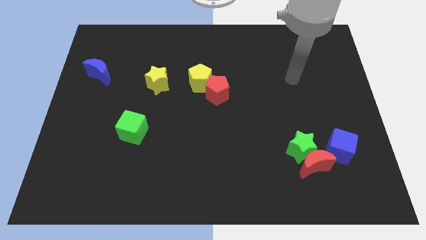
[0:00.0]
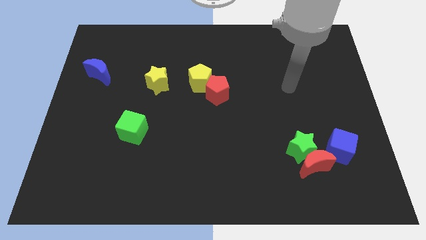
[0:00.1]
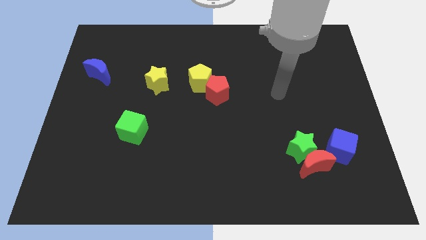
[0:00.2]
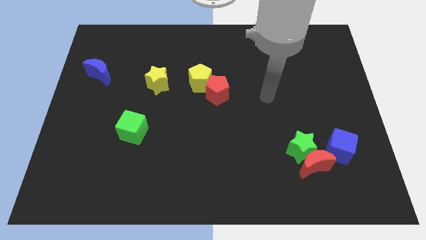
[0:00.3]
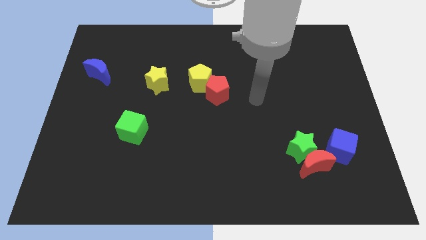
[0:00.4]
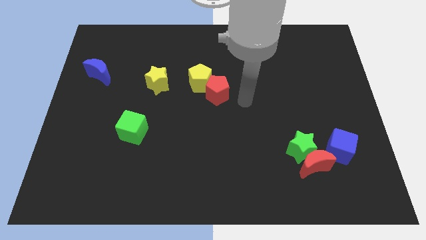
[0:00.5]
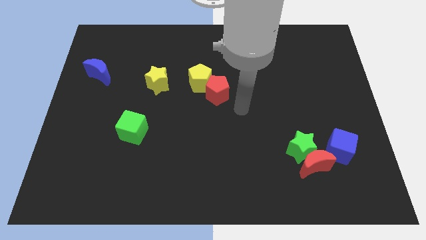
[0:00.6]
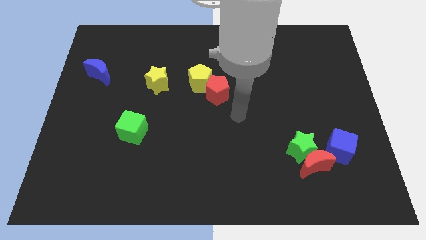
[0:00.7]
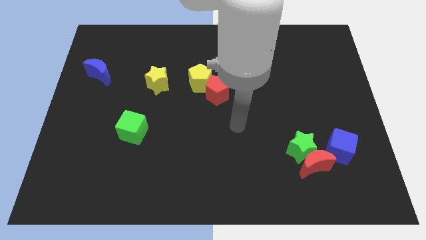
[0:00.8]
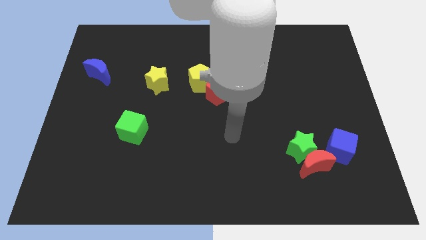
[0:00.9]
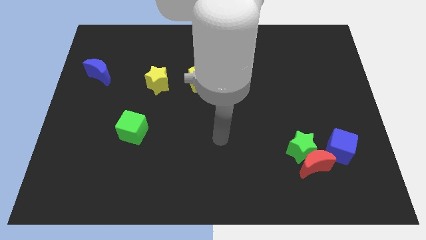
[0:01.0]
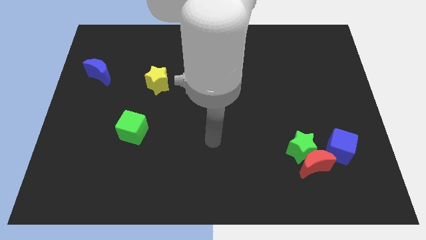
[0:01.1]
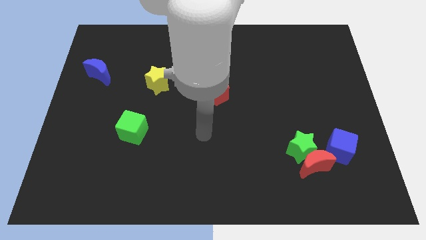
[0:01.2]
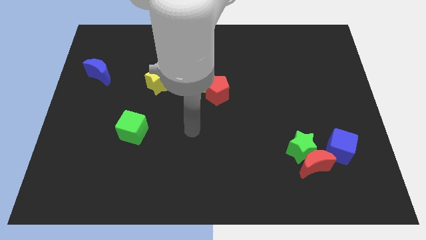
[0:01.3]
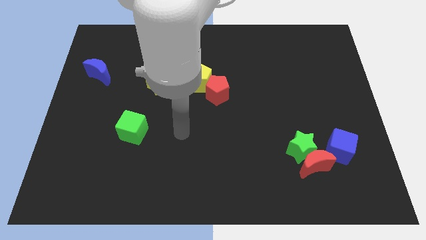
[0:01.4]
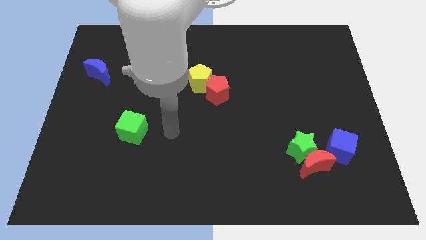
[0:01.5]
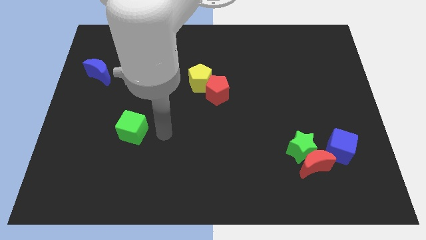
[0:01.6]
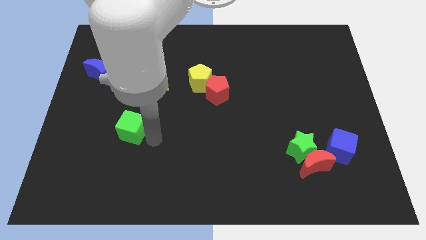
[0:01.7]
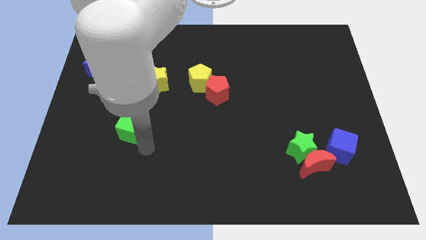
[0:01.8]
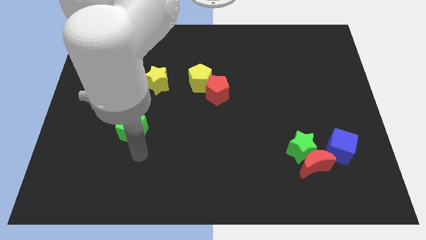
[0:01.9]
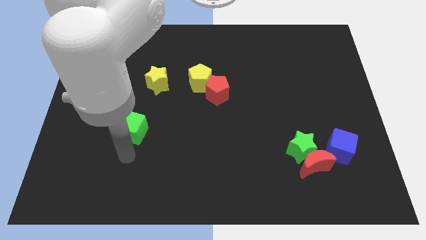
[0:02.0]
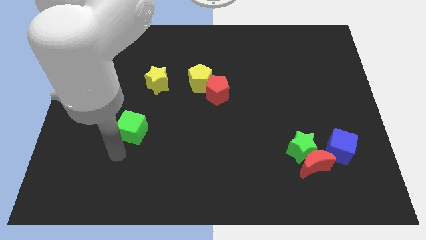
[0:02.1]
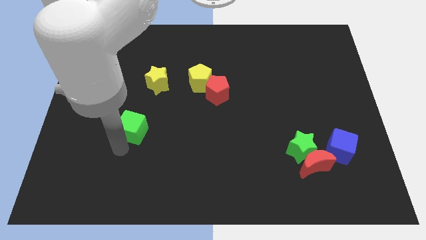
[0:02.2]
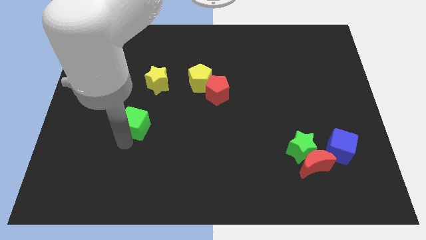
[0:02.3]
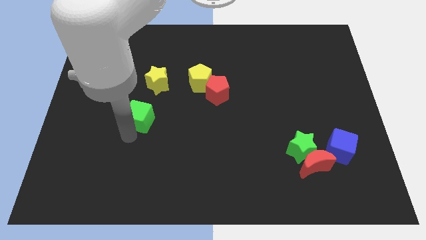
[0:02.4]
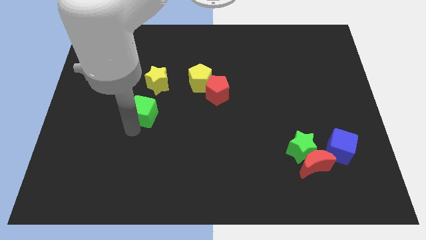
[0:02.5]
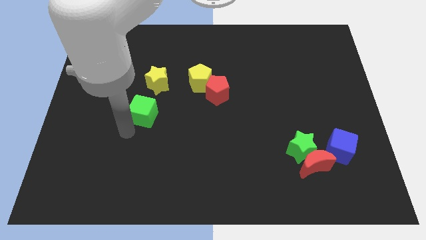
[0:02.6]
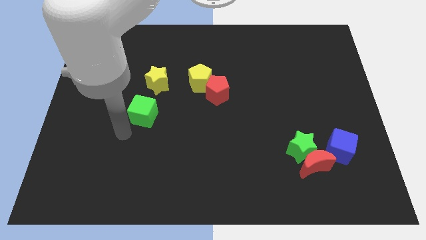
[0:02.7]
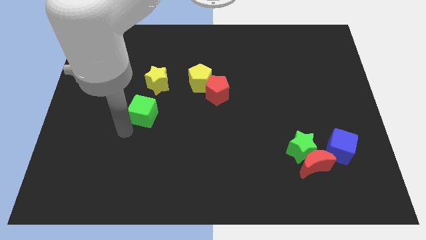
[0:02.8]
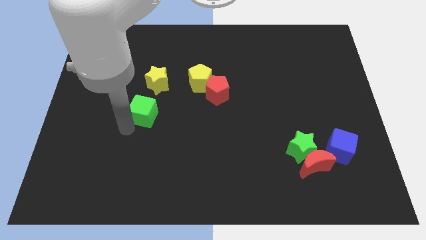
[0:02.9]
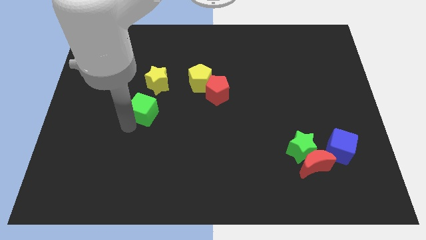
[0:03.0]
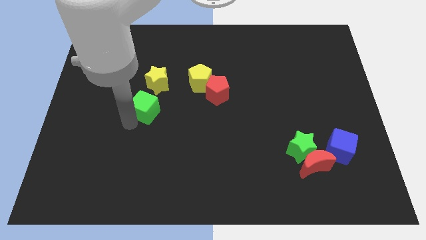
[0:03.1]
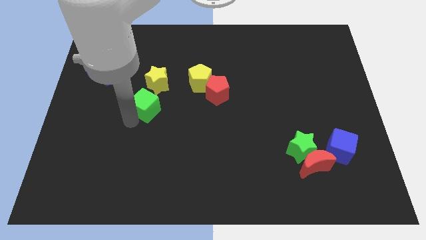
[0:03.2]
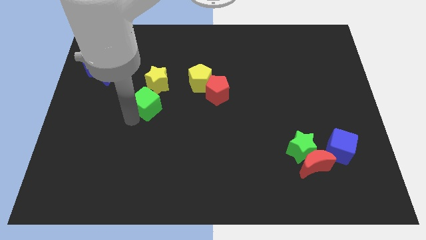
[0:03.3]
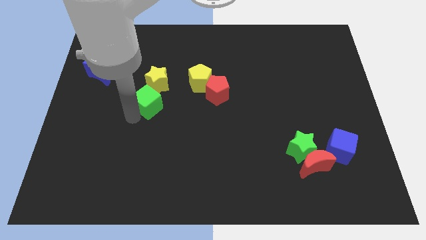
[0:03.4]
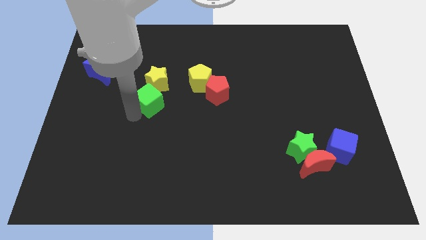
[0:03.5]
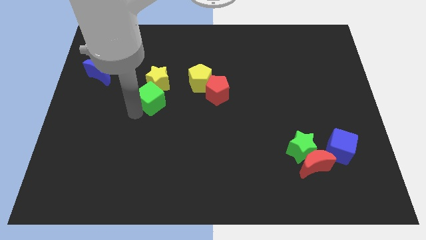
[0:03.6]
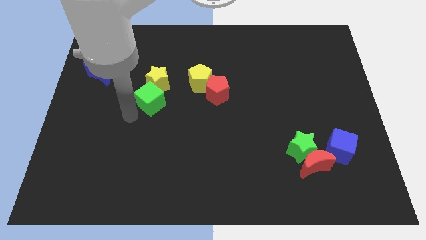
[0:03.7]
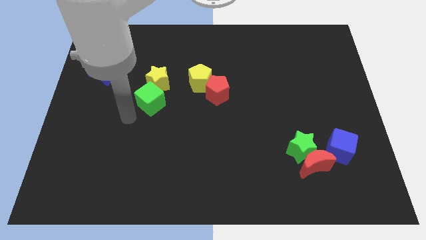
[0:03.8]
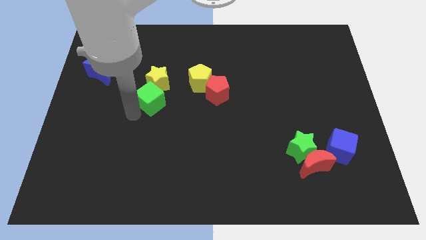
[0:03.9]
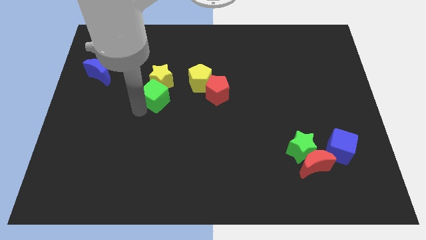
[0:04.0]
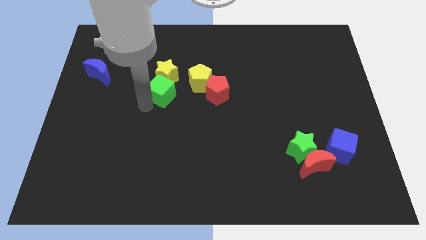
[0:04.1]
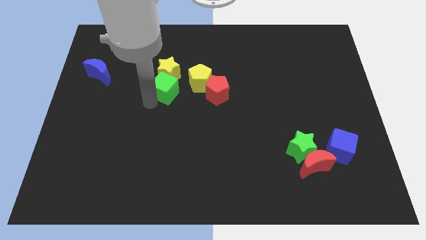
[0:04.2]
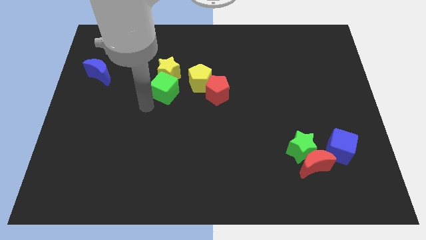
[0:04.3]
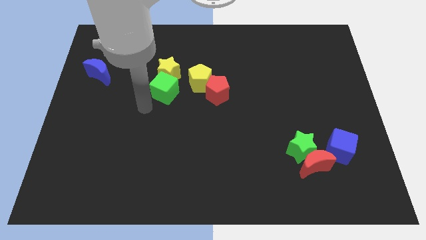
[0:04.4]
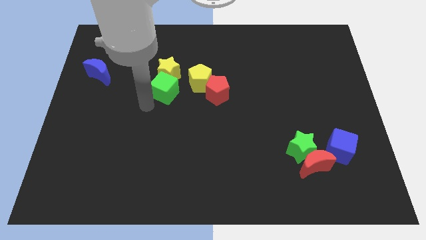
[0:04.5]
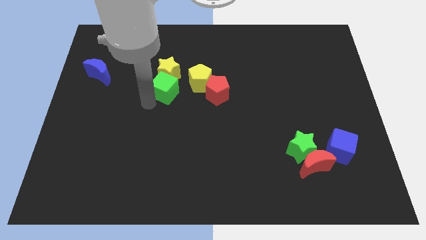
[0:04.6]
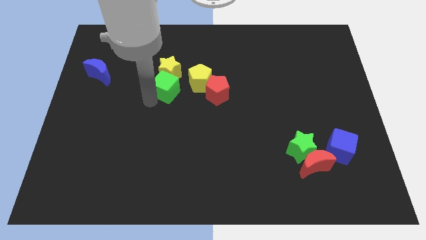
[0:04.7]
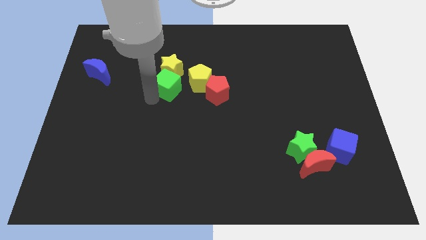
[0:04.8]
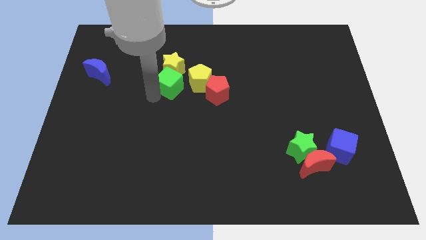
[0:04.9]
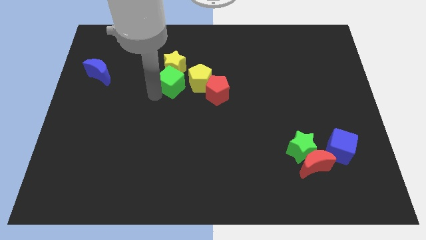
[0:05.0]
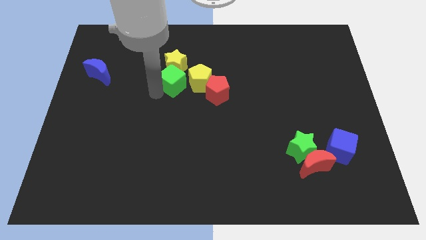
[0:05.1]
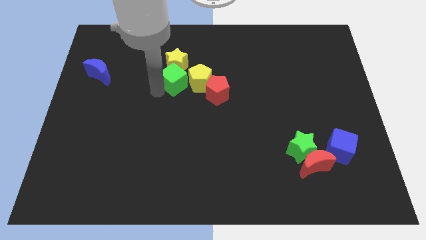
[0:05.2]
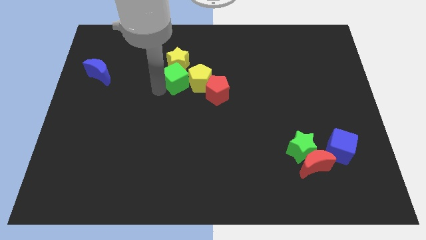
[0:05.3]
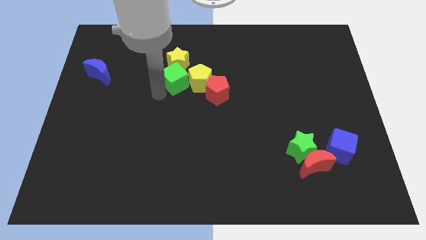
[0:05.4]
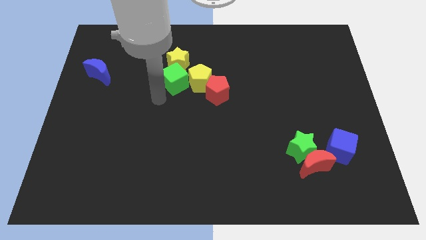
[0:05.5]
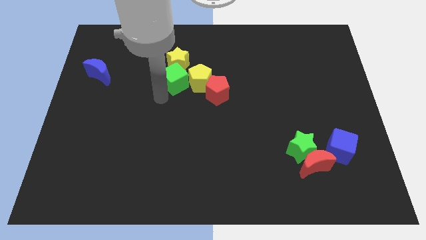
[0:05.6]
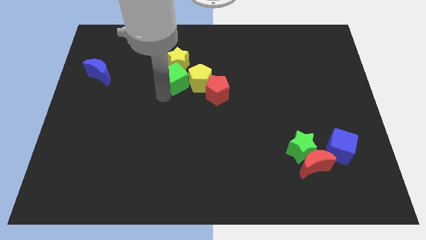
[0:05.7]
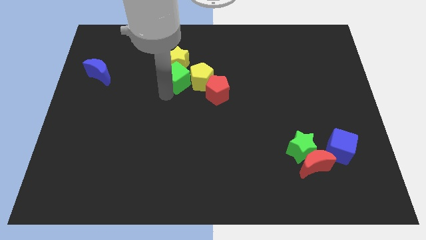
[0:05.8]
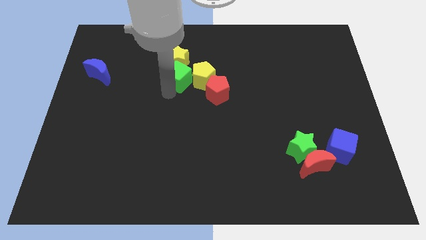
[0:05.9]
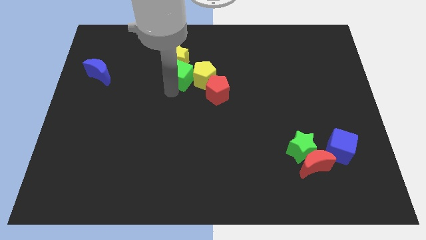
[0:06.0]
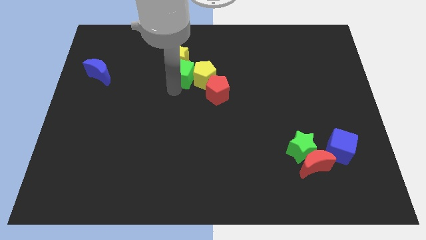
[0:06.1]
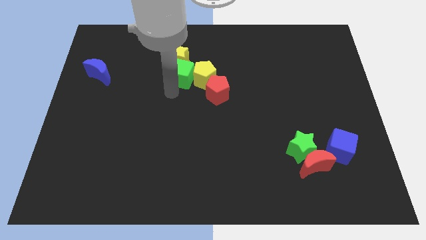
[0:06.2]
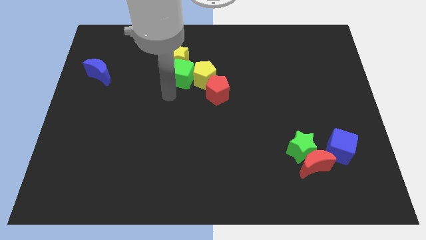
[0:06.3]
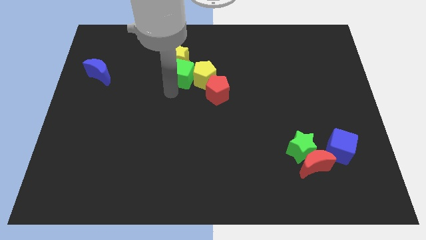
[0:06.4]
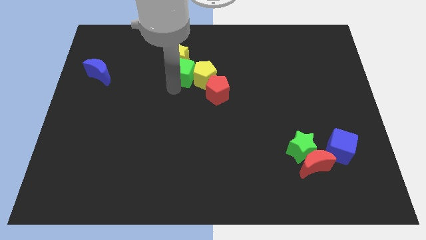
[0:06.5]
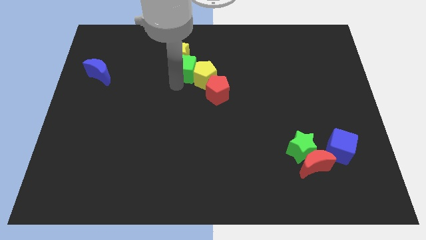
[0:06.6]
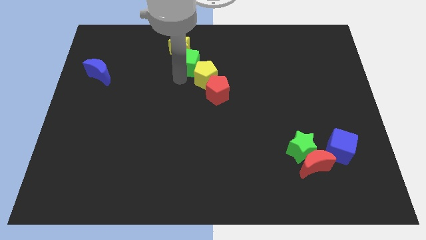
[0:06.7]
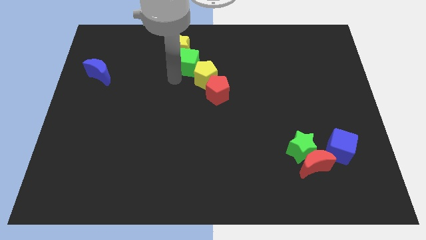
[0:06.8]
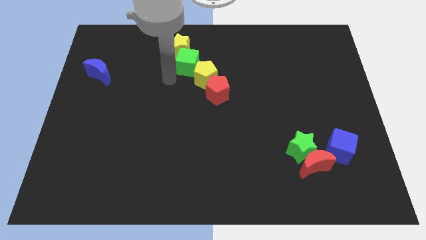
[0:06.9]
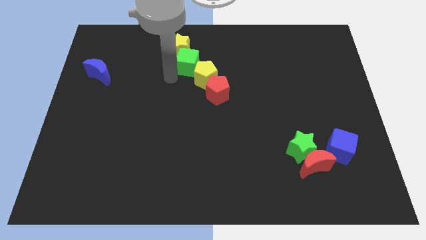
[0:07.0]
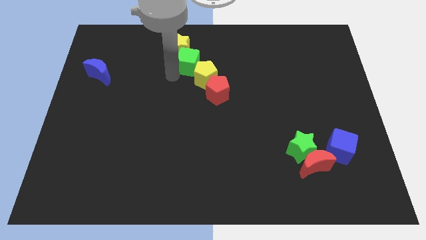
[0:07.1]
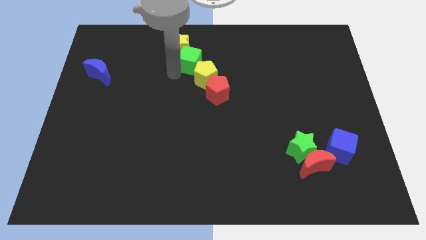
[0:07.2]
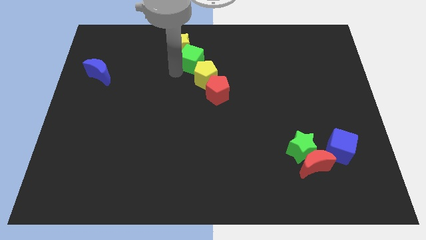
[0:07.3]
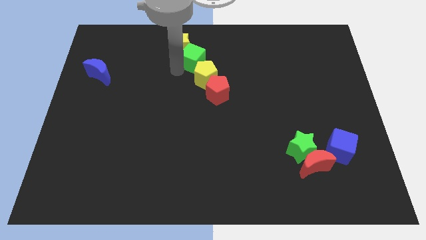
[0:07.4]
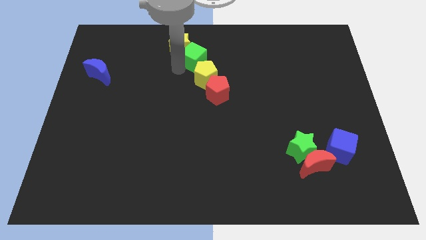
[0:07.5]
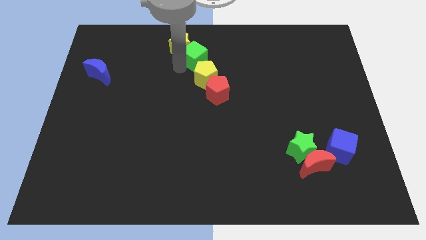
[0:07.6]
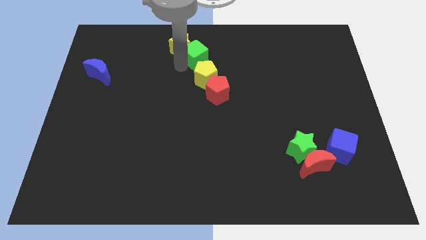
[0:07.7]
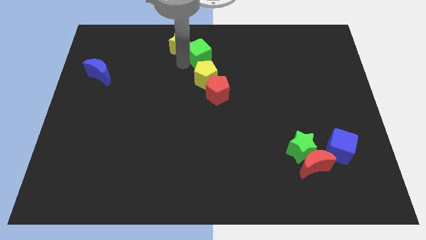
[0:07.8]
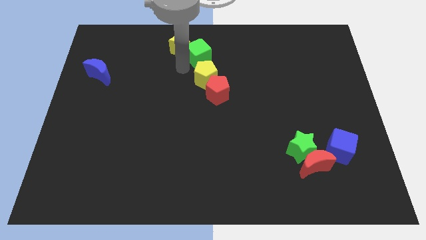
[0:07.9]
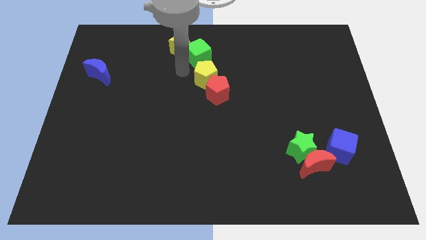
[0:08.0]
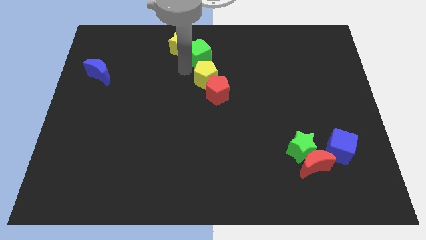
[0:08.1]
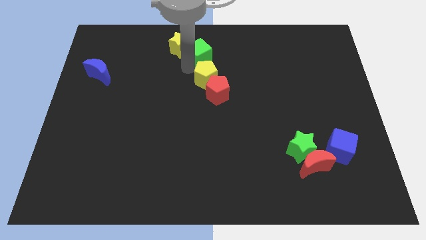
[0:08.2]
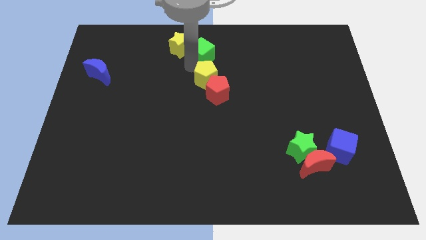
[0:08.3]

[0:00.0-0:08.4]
move the green cube to the towards your base
